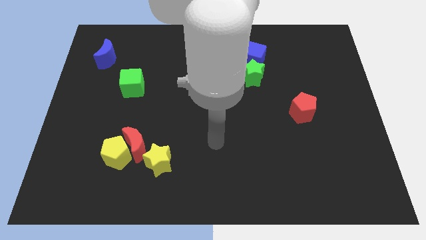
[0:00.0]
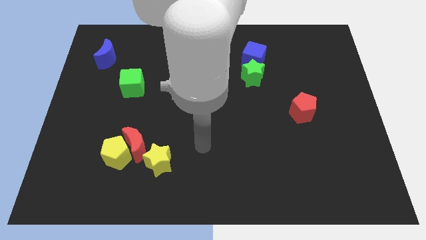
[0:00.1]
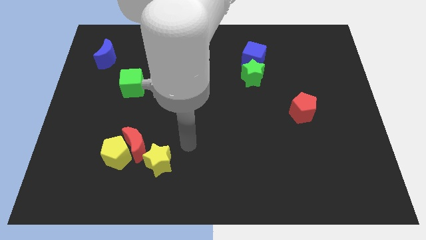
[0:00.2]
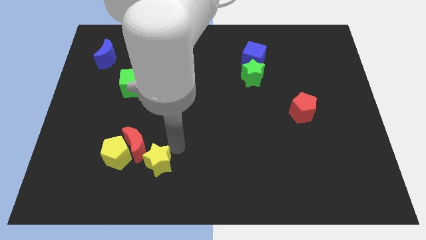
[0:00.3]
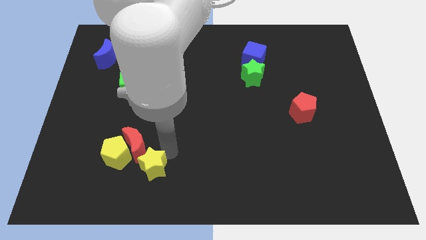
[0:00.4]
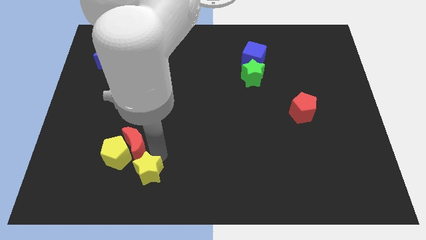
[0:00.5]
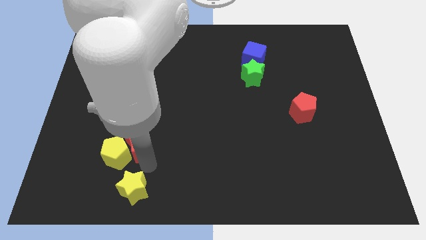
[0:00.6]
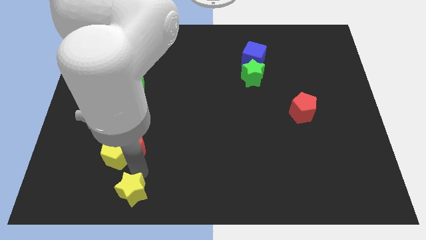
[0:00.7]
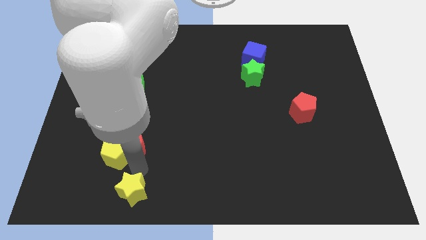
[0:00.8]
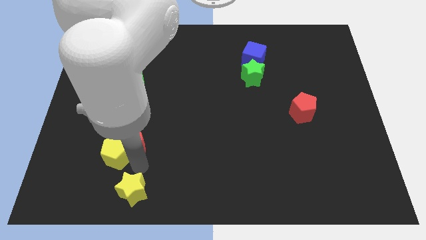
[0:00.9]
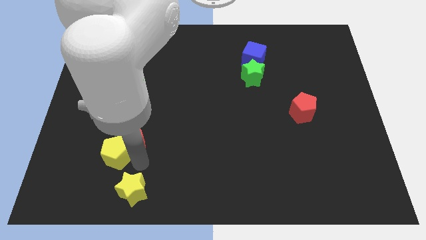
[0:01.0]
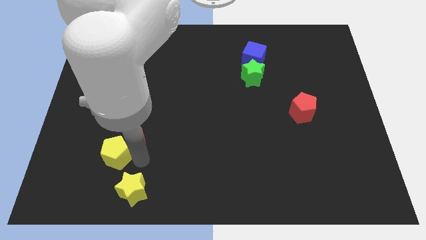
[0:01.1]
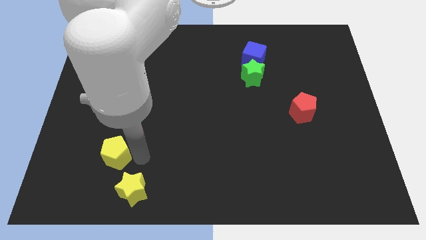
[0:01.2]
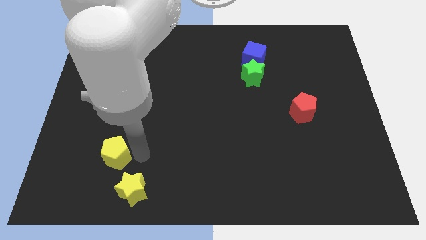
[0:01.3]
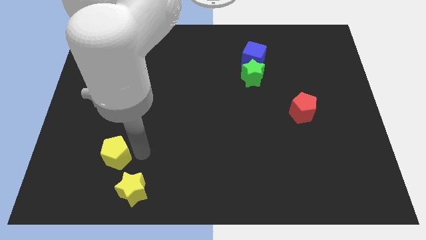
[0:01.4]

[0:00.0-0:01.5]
pull the red moon apart from the yellow pentagon and yellow star

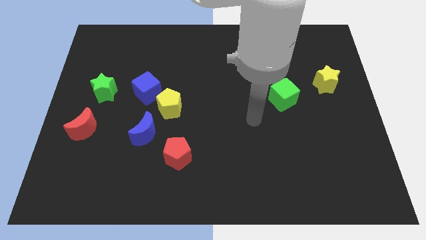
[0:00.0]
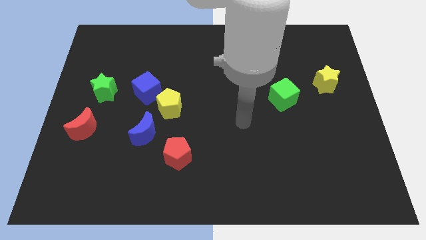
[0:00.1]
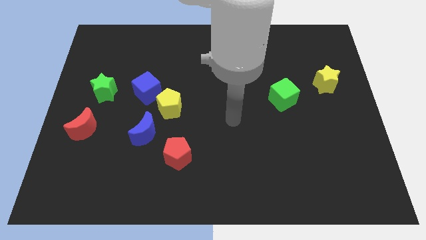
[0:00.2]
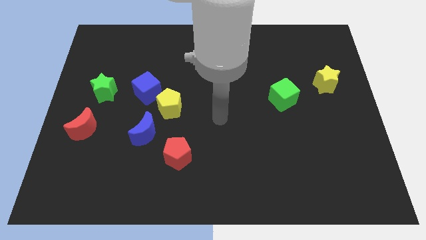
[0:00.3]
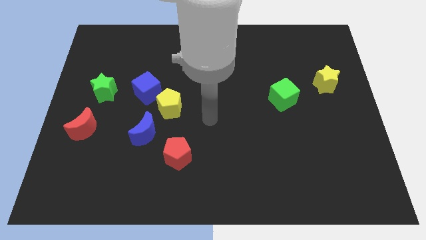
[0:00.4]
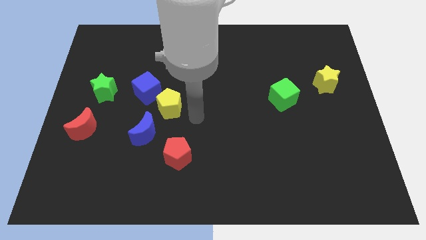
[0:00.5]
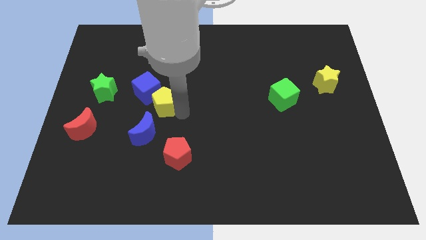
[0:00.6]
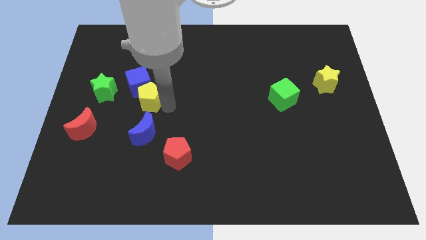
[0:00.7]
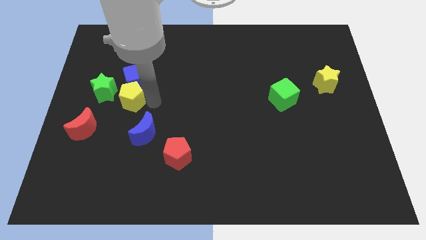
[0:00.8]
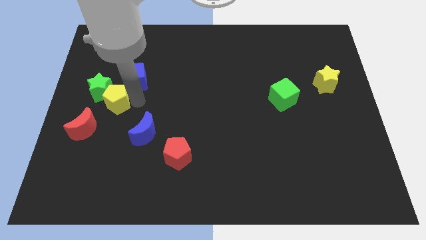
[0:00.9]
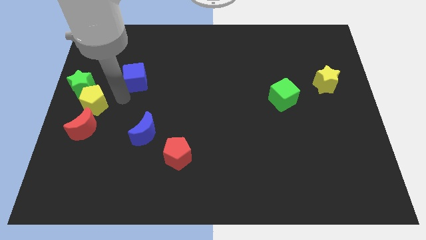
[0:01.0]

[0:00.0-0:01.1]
separate the blue cube from the yellow pentagon

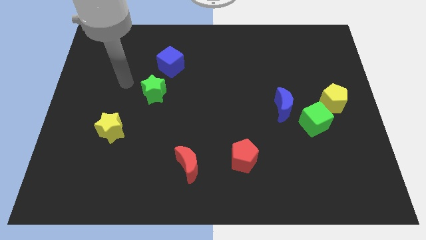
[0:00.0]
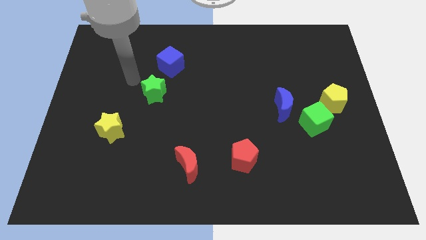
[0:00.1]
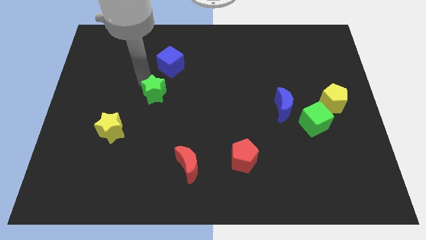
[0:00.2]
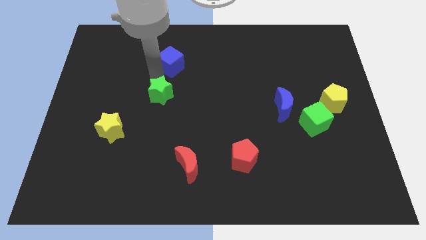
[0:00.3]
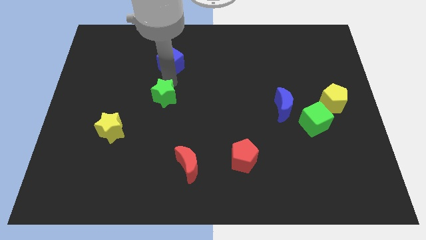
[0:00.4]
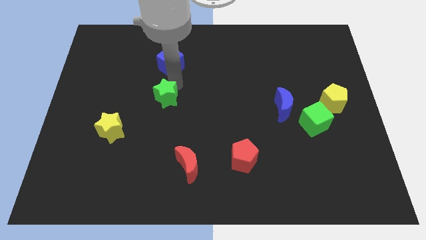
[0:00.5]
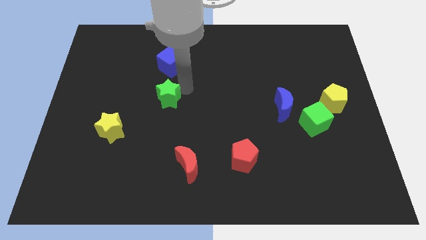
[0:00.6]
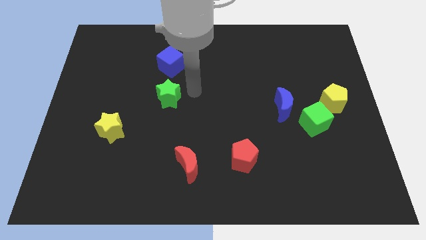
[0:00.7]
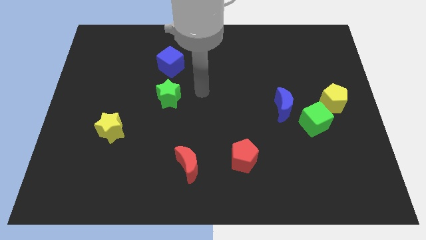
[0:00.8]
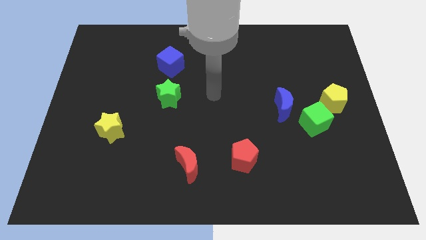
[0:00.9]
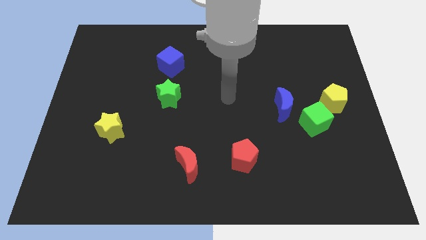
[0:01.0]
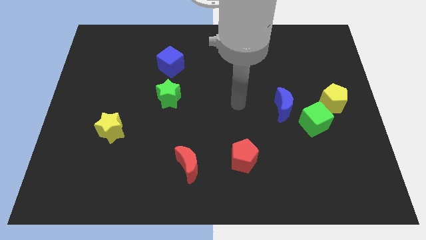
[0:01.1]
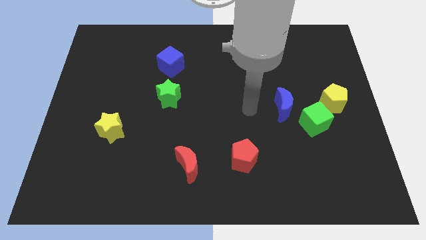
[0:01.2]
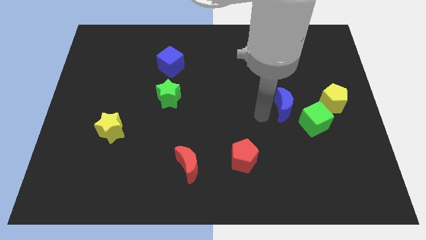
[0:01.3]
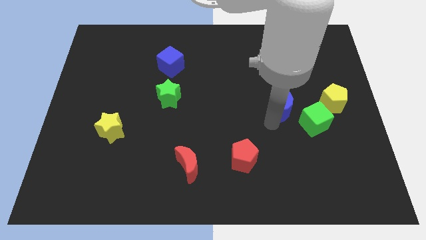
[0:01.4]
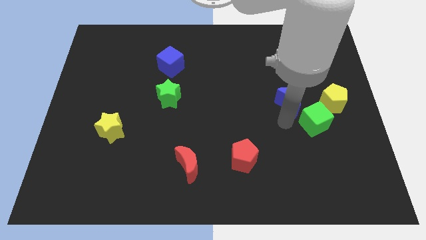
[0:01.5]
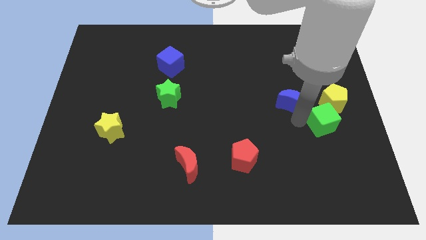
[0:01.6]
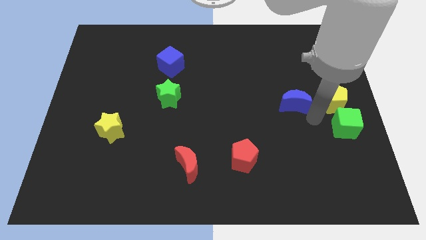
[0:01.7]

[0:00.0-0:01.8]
separate the blue moon from the green cube

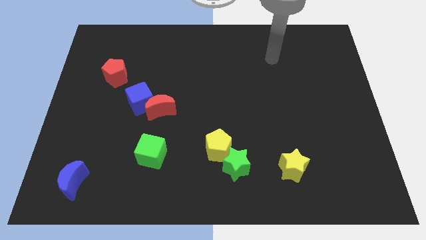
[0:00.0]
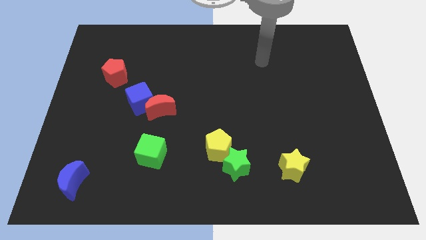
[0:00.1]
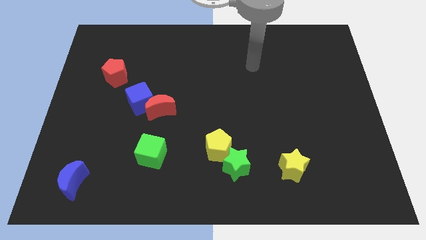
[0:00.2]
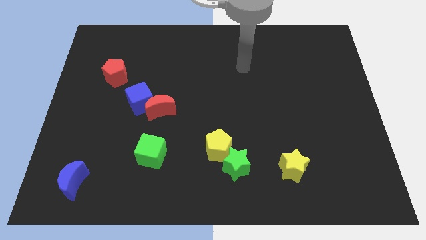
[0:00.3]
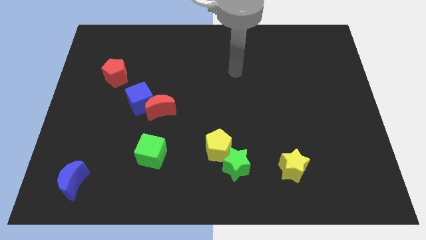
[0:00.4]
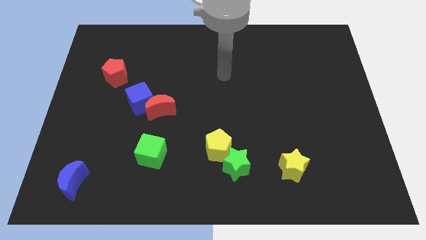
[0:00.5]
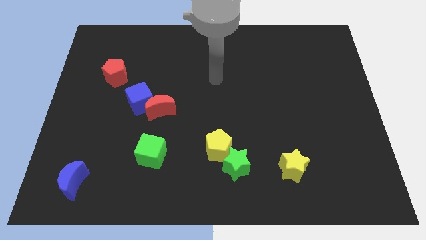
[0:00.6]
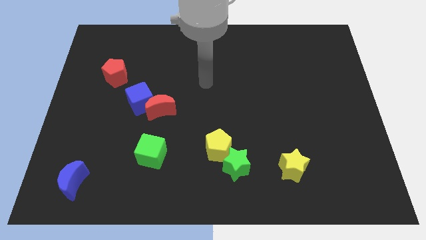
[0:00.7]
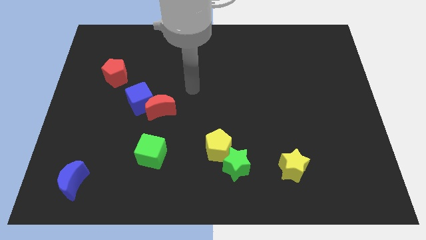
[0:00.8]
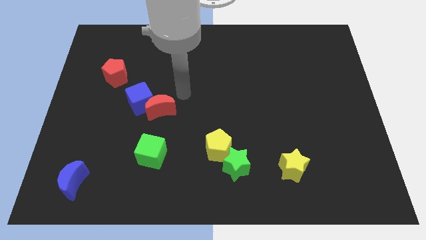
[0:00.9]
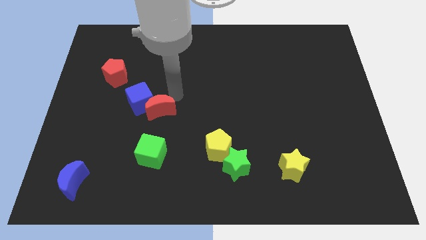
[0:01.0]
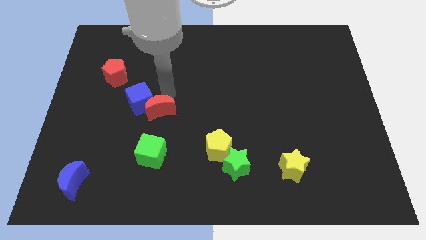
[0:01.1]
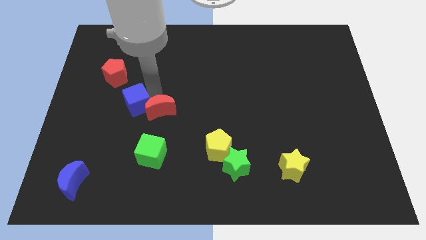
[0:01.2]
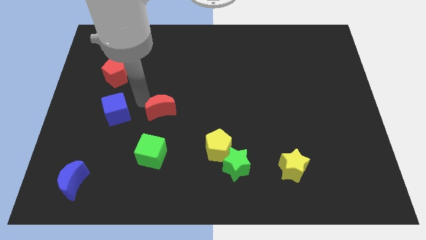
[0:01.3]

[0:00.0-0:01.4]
pull the red moon apart from the blue cube

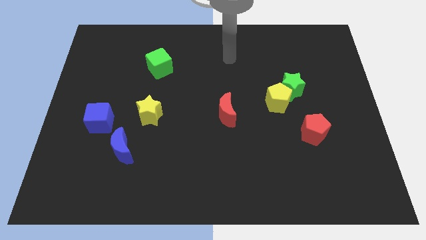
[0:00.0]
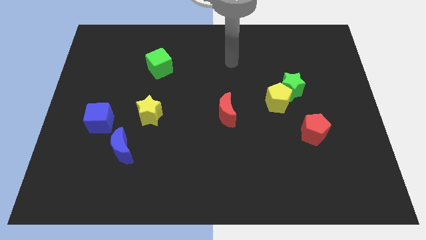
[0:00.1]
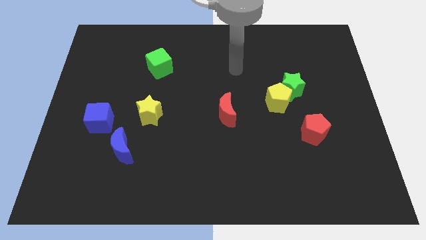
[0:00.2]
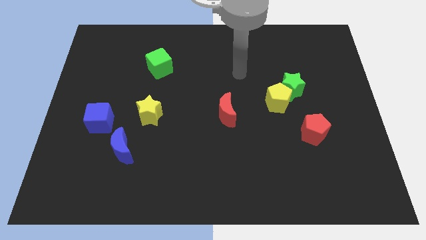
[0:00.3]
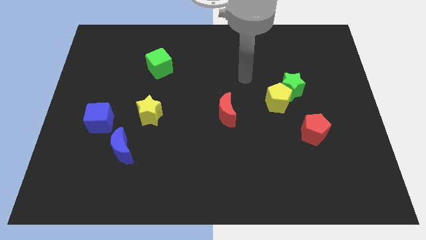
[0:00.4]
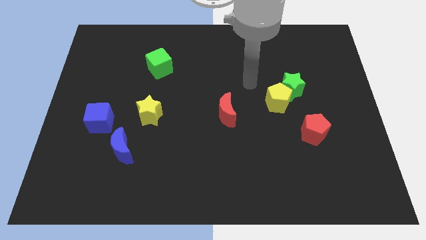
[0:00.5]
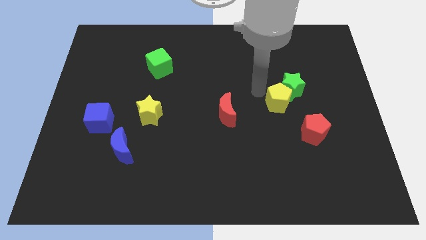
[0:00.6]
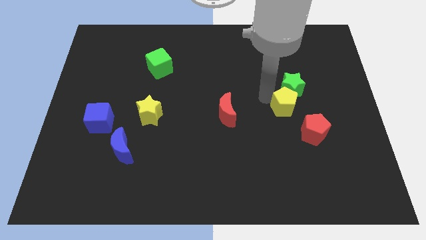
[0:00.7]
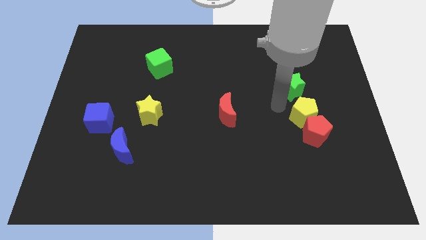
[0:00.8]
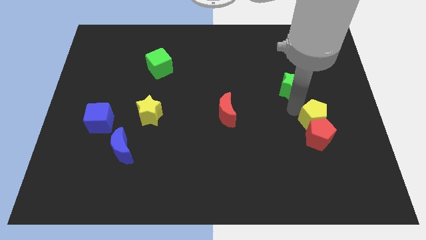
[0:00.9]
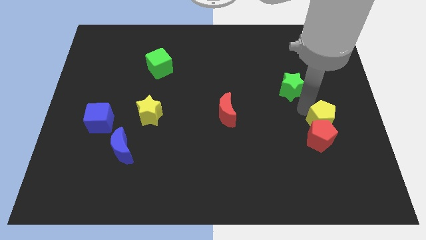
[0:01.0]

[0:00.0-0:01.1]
move the green star away from the yellow pentagon

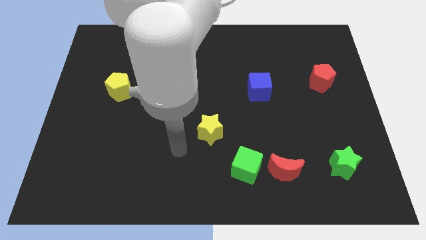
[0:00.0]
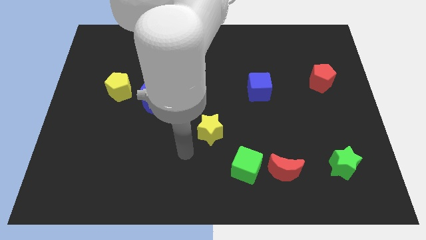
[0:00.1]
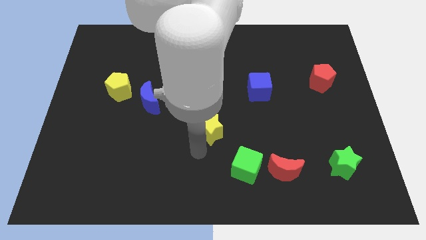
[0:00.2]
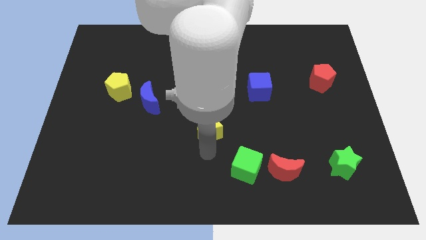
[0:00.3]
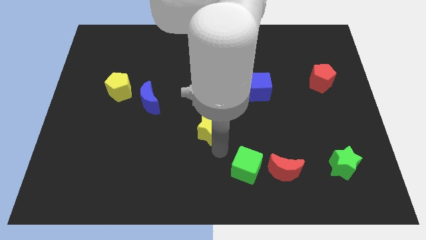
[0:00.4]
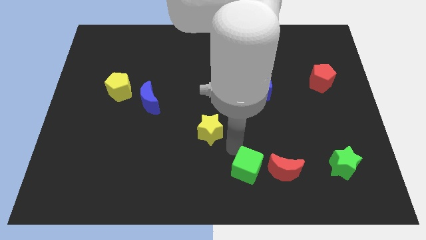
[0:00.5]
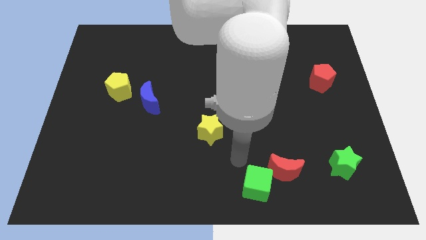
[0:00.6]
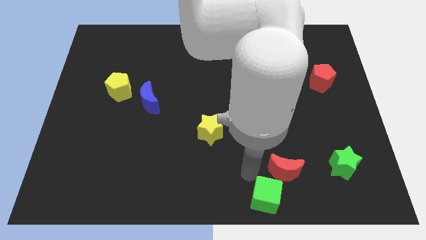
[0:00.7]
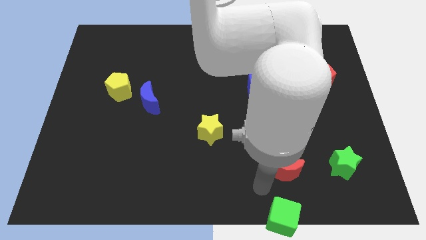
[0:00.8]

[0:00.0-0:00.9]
move the red moon away from the green cube

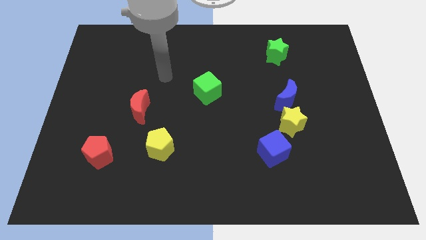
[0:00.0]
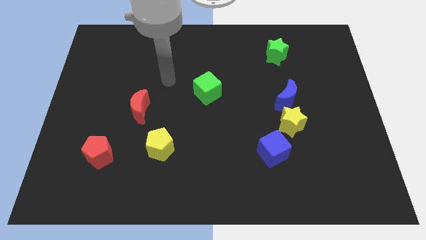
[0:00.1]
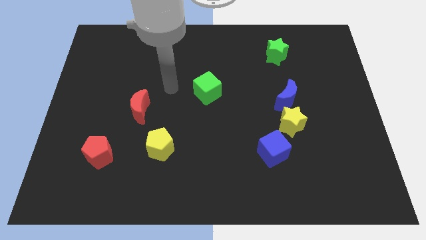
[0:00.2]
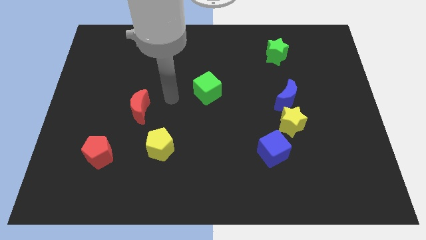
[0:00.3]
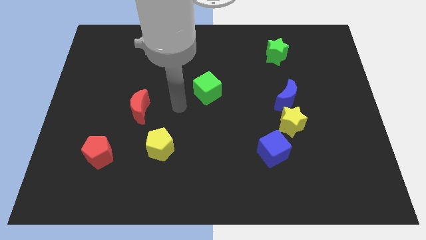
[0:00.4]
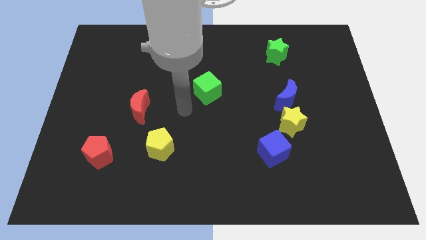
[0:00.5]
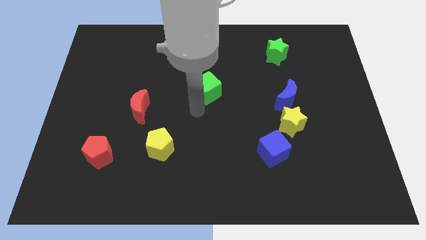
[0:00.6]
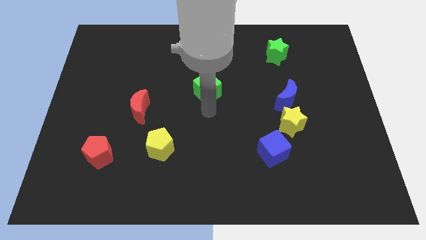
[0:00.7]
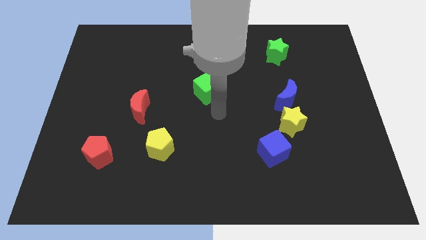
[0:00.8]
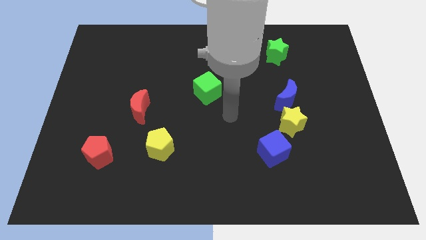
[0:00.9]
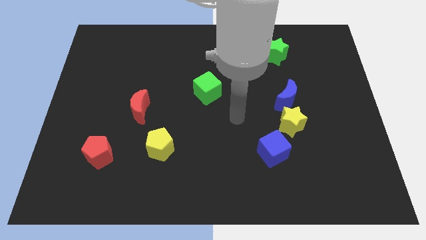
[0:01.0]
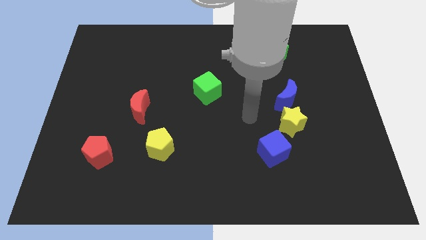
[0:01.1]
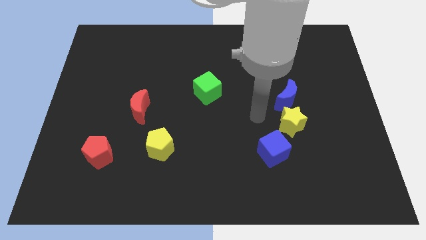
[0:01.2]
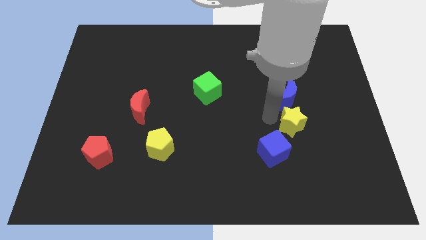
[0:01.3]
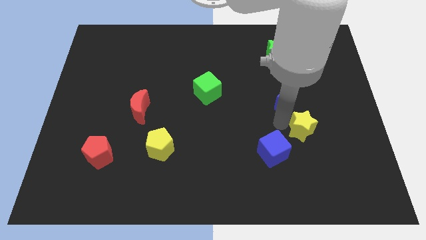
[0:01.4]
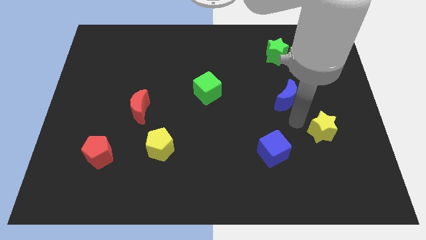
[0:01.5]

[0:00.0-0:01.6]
move the blue moon away from the yellow star

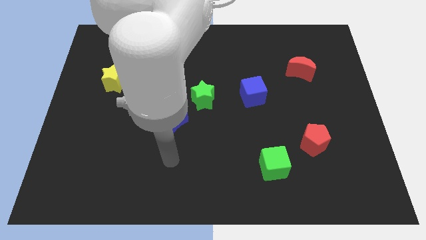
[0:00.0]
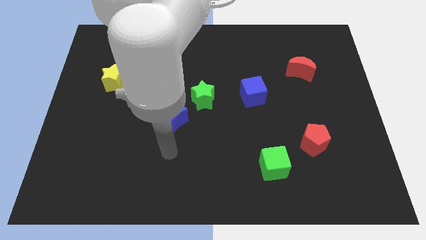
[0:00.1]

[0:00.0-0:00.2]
separate the green star from the blue moon
